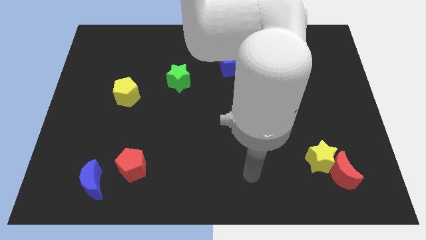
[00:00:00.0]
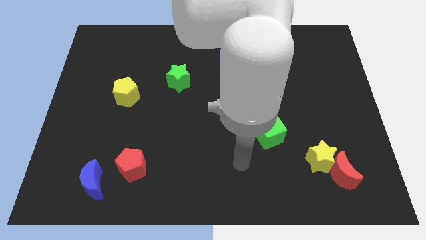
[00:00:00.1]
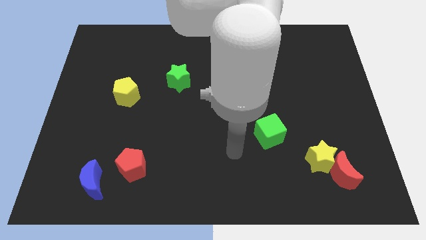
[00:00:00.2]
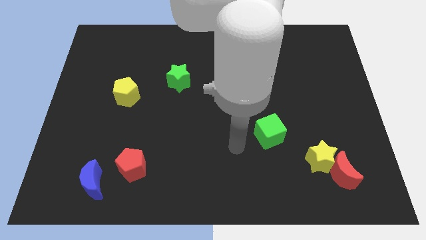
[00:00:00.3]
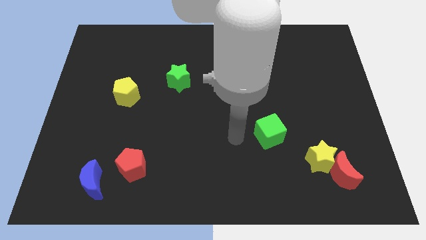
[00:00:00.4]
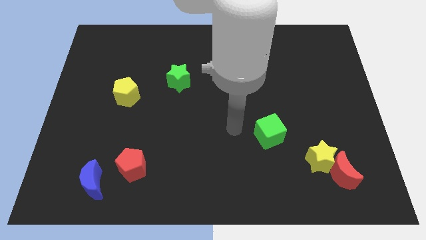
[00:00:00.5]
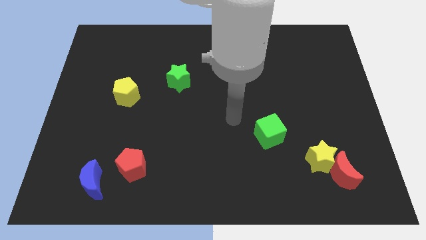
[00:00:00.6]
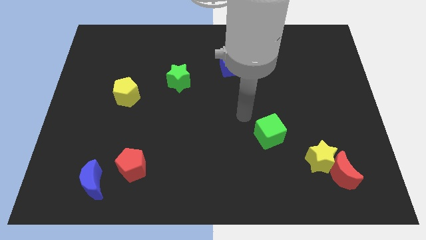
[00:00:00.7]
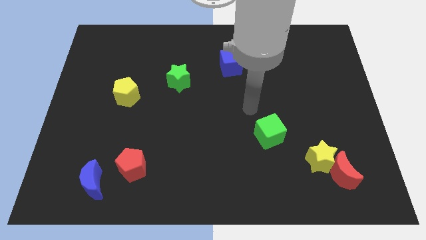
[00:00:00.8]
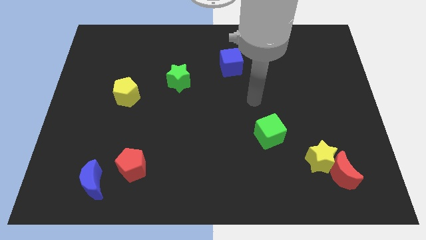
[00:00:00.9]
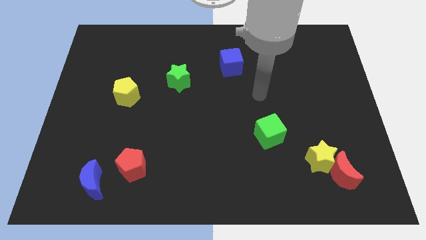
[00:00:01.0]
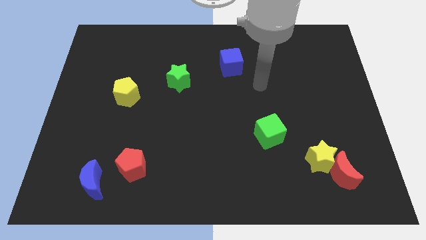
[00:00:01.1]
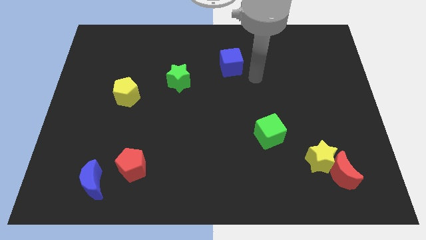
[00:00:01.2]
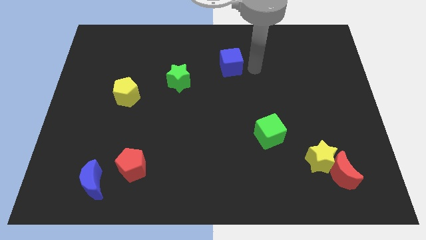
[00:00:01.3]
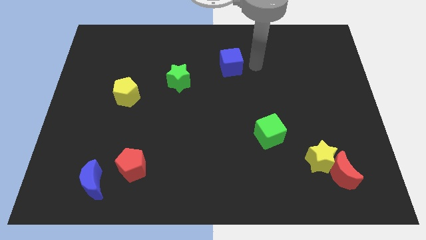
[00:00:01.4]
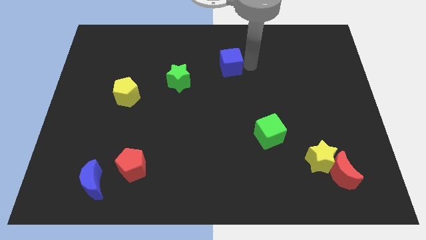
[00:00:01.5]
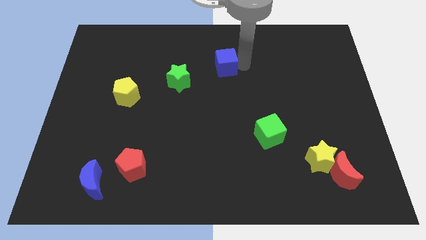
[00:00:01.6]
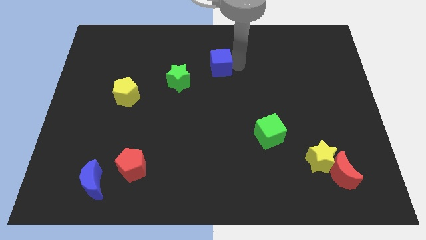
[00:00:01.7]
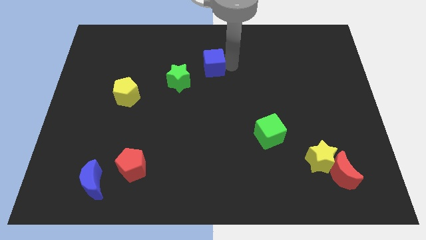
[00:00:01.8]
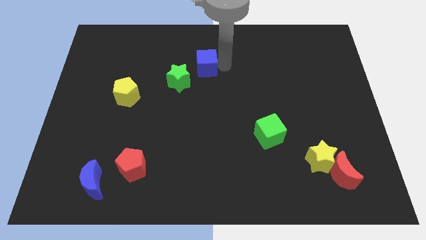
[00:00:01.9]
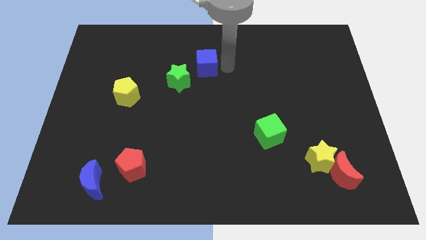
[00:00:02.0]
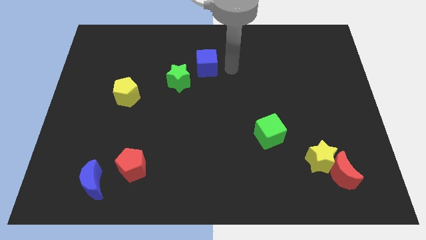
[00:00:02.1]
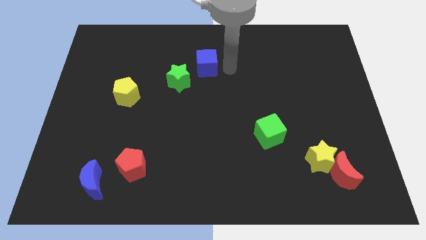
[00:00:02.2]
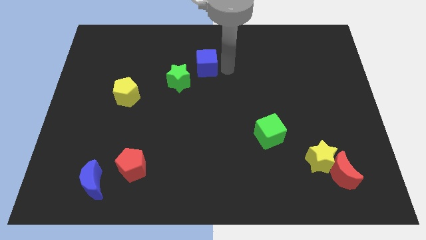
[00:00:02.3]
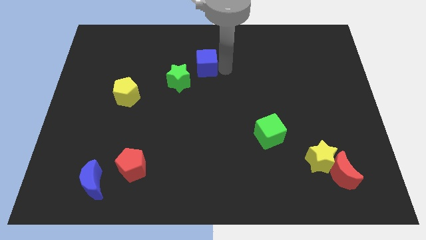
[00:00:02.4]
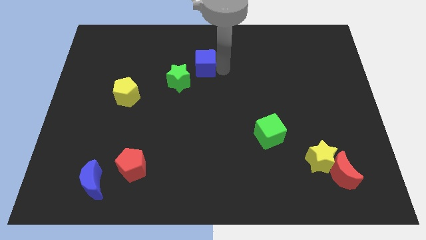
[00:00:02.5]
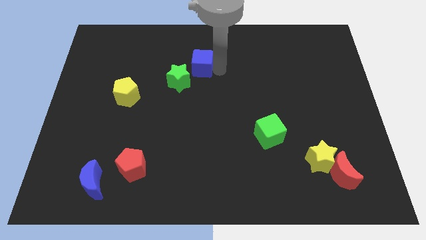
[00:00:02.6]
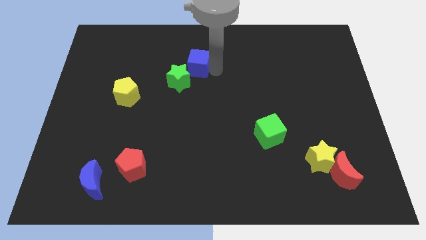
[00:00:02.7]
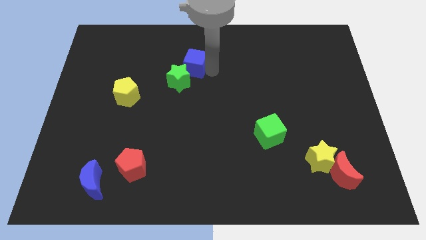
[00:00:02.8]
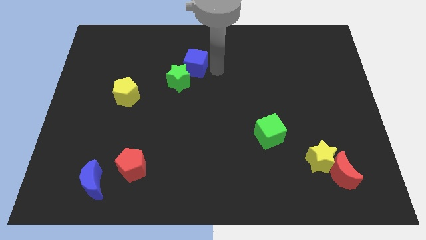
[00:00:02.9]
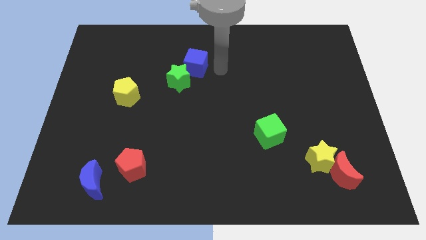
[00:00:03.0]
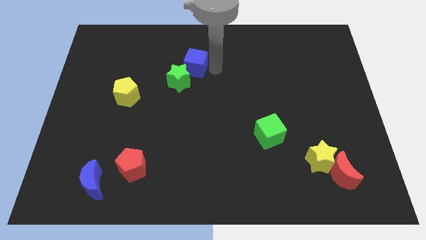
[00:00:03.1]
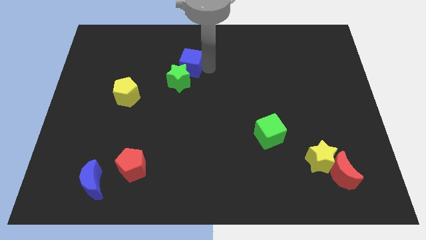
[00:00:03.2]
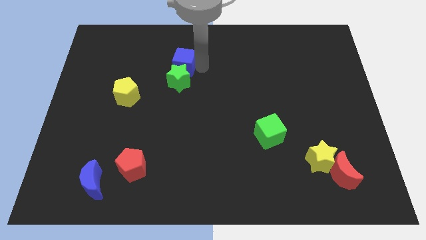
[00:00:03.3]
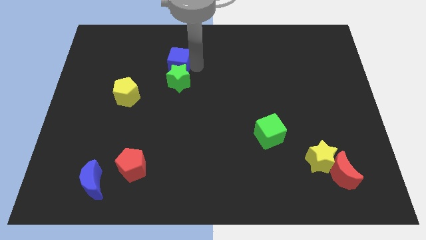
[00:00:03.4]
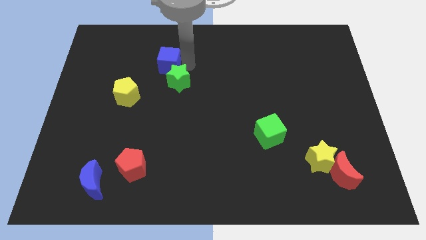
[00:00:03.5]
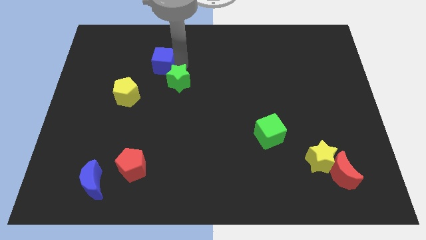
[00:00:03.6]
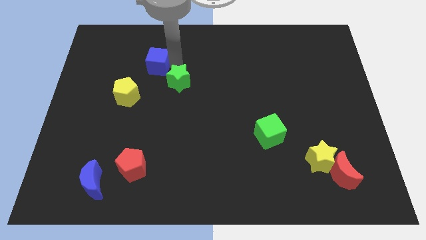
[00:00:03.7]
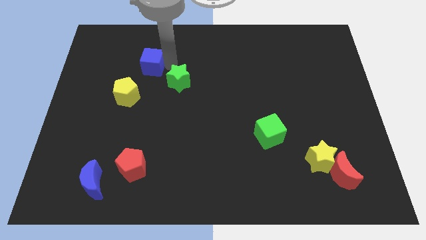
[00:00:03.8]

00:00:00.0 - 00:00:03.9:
push the blue cube to the left

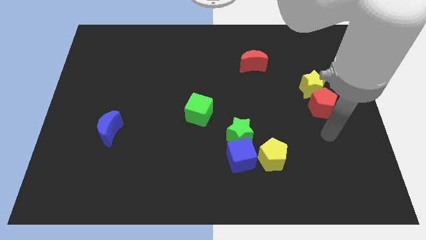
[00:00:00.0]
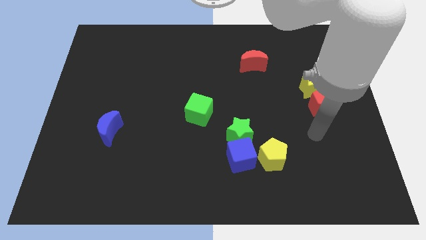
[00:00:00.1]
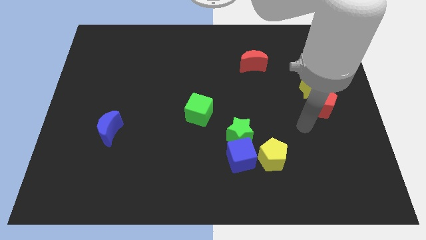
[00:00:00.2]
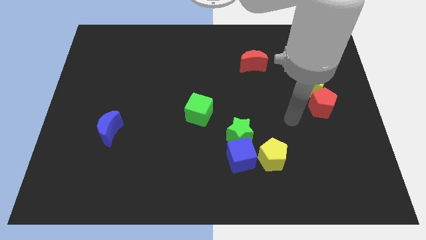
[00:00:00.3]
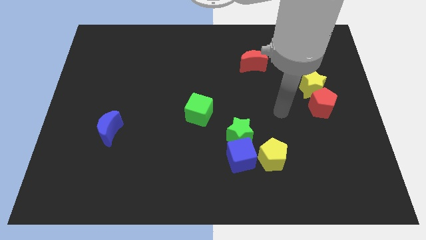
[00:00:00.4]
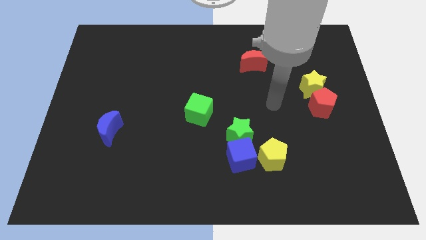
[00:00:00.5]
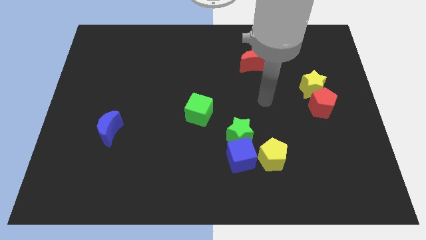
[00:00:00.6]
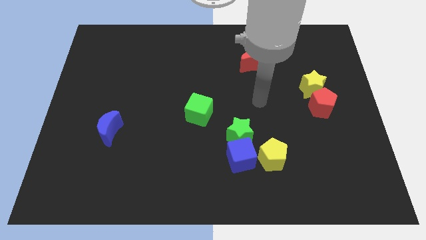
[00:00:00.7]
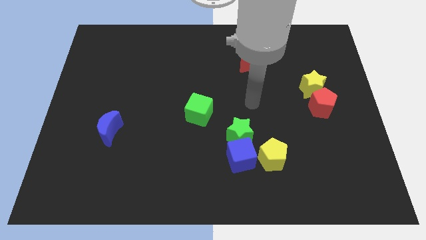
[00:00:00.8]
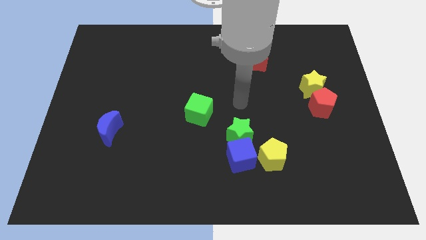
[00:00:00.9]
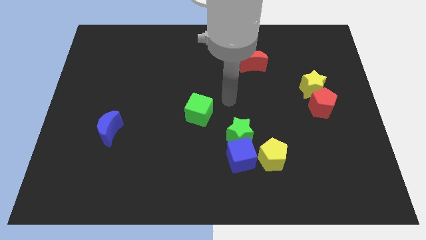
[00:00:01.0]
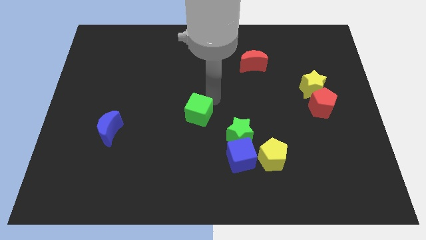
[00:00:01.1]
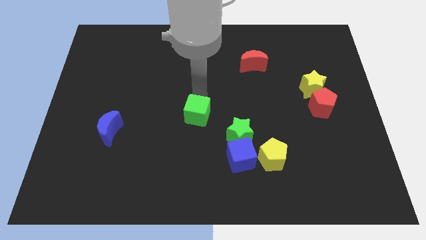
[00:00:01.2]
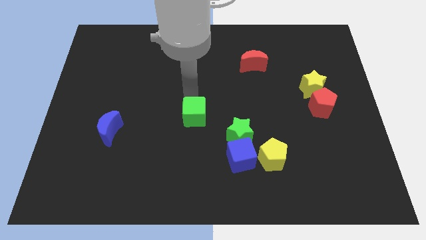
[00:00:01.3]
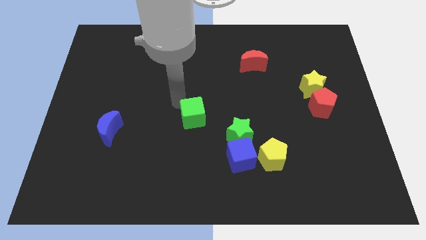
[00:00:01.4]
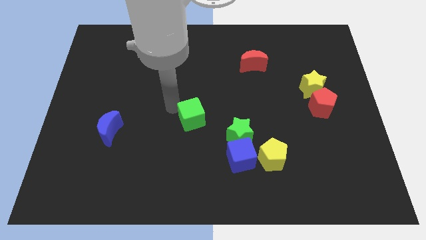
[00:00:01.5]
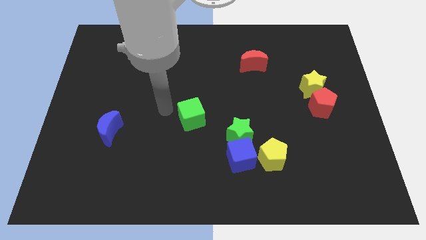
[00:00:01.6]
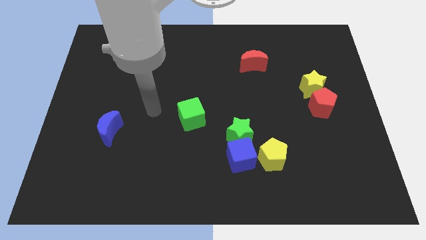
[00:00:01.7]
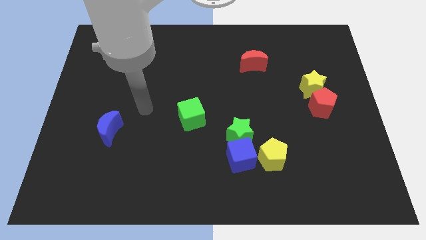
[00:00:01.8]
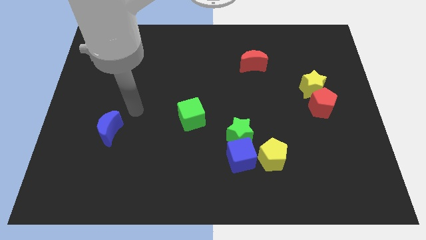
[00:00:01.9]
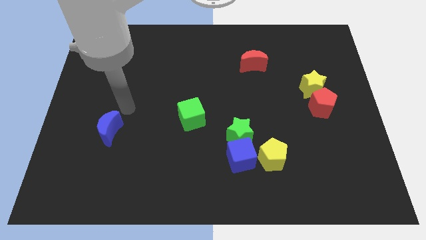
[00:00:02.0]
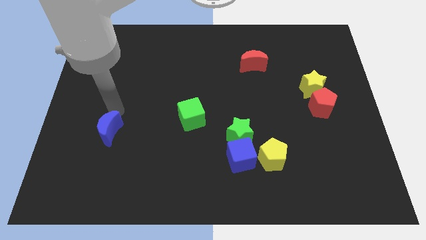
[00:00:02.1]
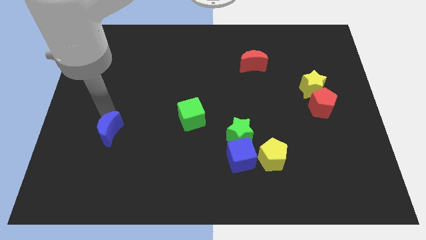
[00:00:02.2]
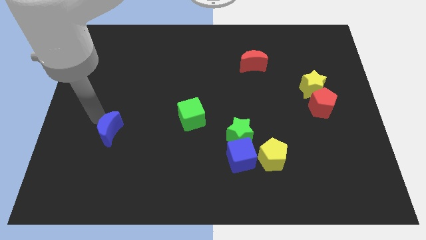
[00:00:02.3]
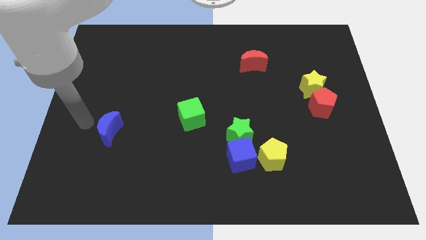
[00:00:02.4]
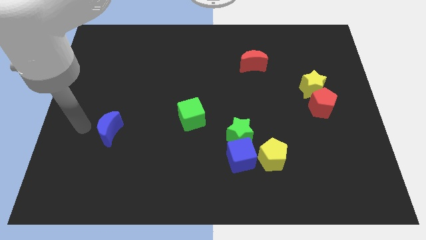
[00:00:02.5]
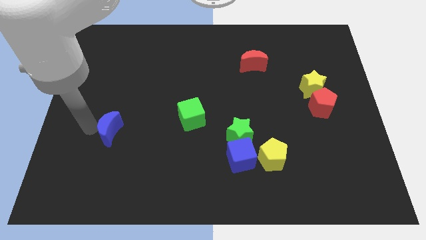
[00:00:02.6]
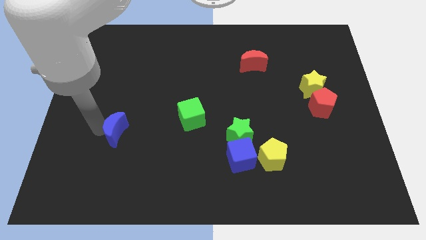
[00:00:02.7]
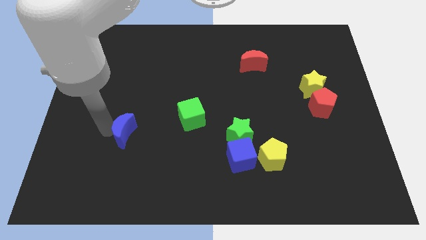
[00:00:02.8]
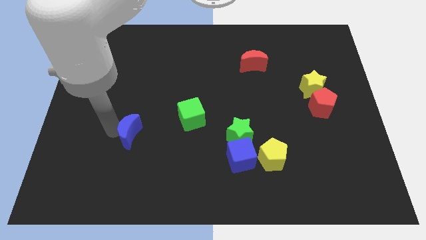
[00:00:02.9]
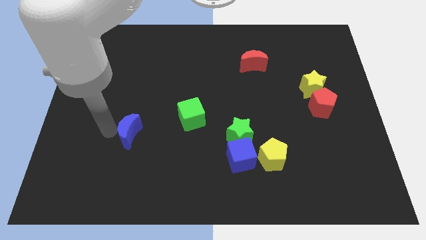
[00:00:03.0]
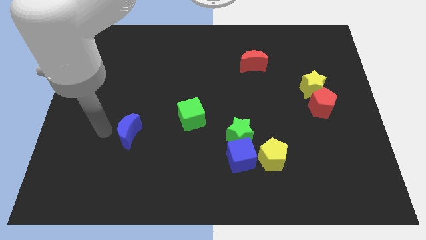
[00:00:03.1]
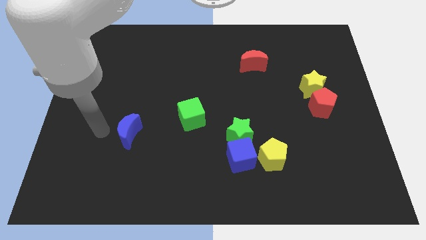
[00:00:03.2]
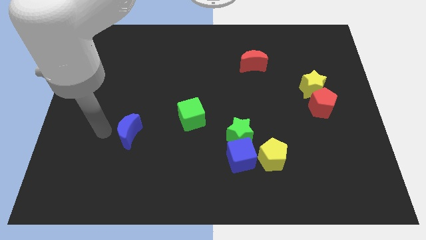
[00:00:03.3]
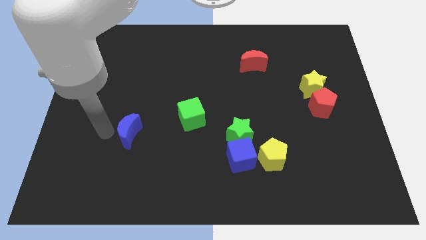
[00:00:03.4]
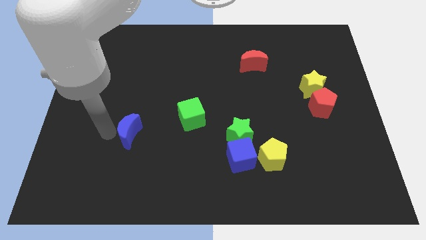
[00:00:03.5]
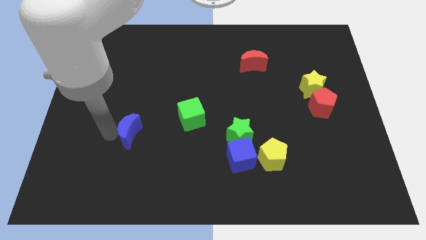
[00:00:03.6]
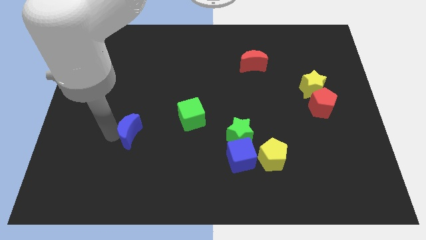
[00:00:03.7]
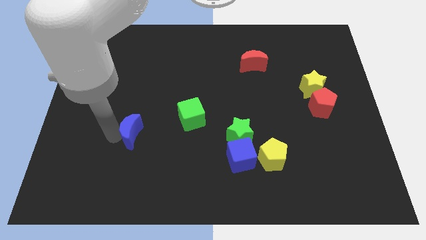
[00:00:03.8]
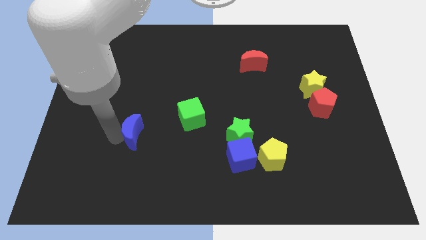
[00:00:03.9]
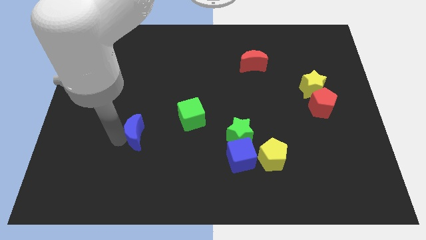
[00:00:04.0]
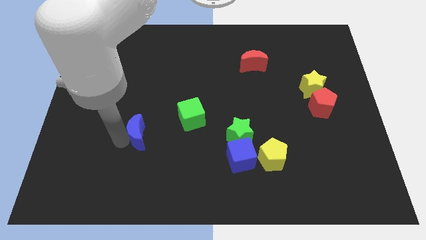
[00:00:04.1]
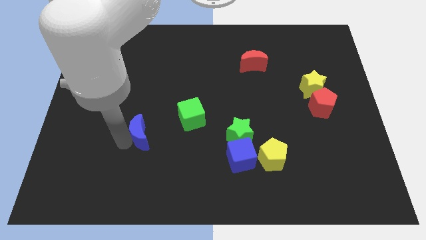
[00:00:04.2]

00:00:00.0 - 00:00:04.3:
slide the blue moon a bit right

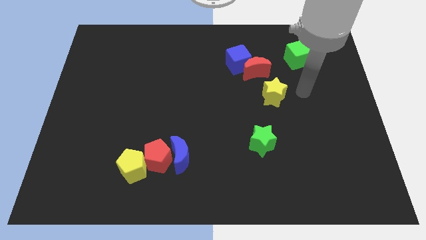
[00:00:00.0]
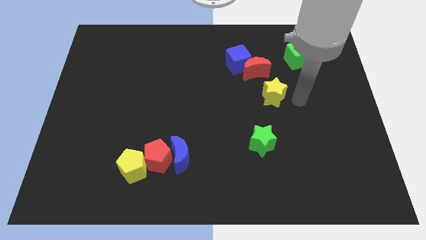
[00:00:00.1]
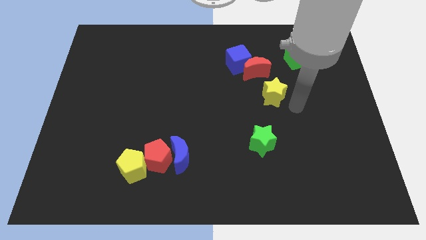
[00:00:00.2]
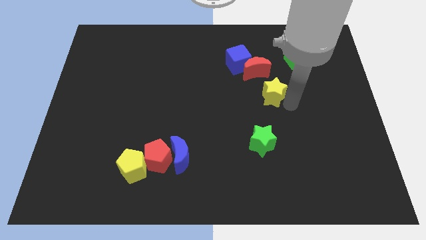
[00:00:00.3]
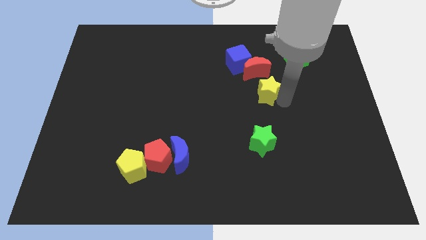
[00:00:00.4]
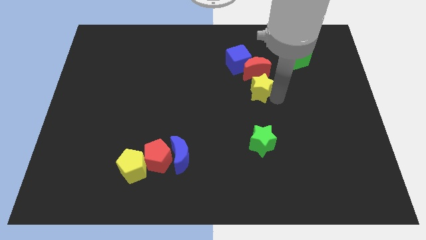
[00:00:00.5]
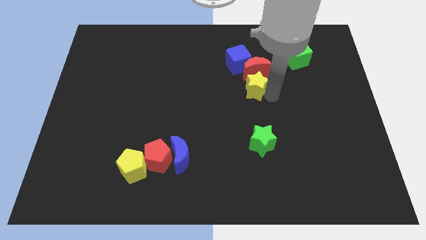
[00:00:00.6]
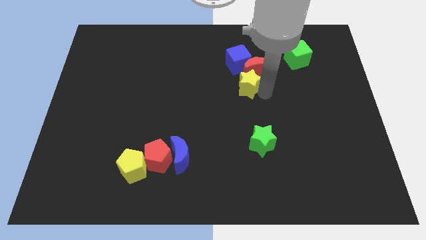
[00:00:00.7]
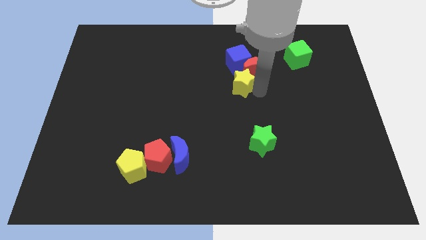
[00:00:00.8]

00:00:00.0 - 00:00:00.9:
slightly push the yellow star up and then to the left
